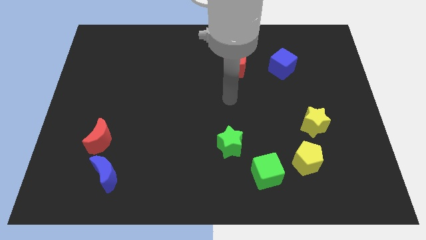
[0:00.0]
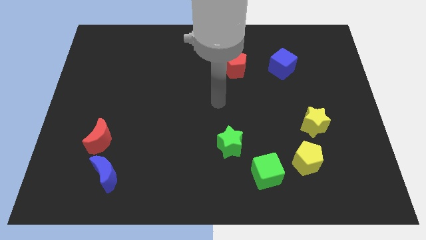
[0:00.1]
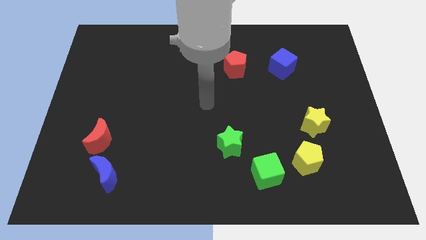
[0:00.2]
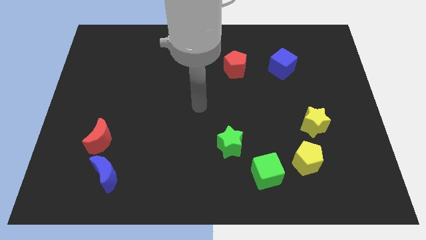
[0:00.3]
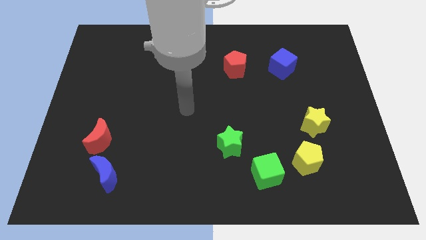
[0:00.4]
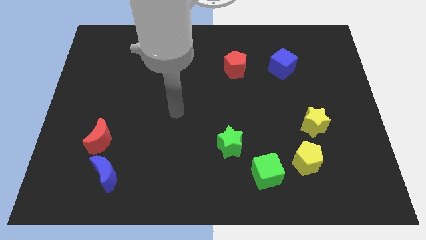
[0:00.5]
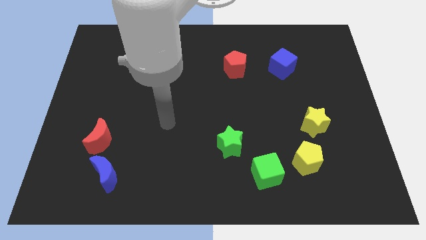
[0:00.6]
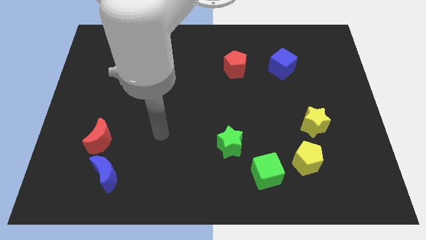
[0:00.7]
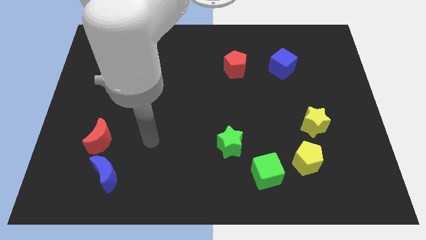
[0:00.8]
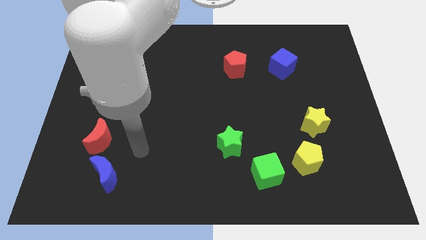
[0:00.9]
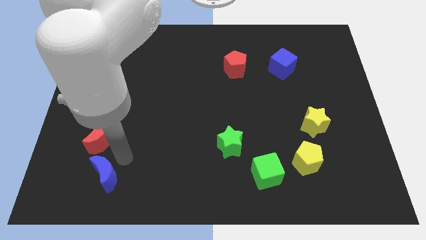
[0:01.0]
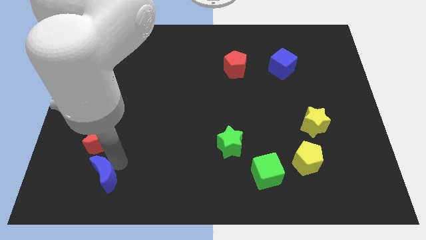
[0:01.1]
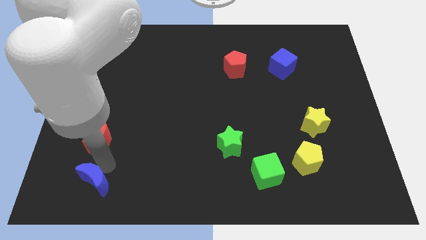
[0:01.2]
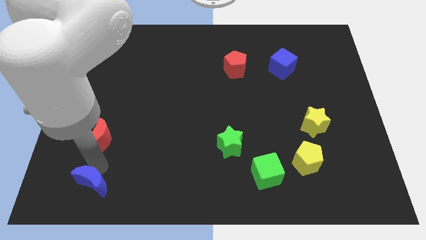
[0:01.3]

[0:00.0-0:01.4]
move the red moon away from the blue moon

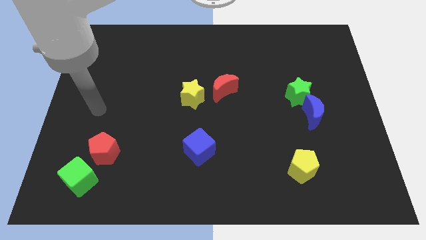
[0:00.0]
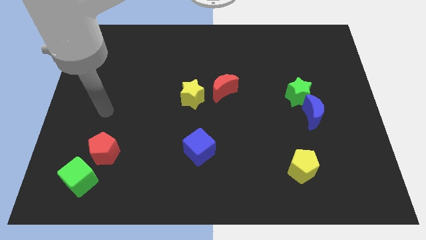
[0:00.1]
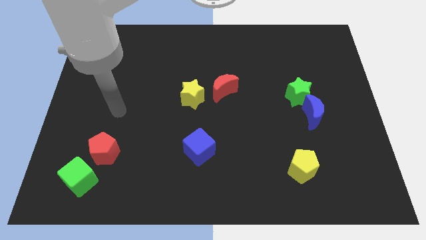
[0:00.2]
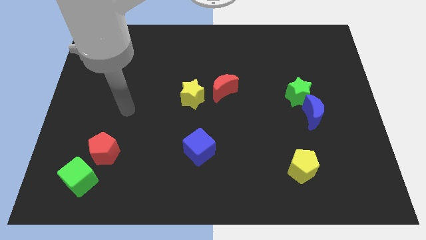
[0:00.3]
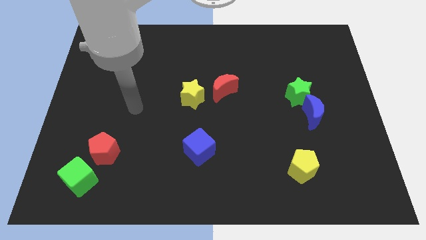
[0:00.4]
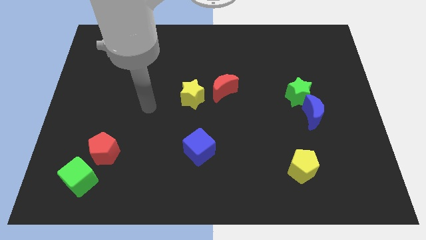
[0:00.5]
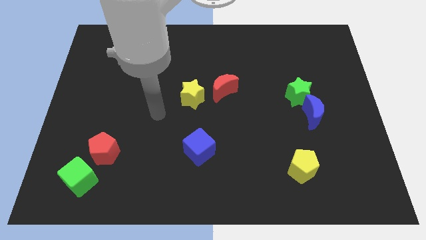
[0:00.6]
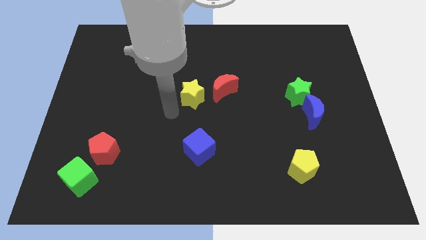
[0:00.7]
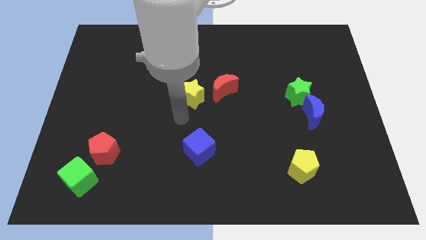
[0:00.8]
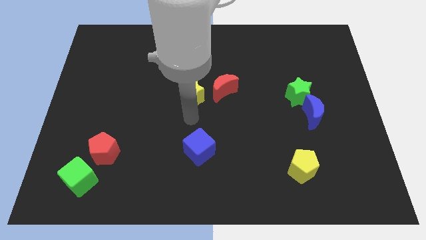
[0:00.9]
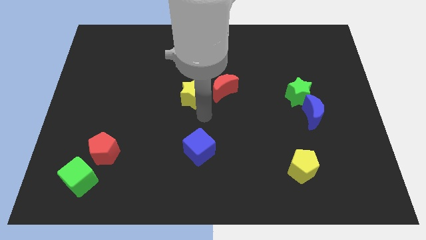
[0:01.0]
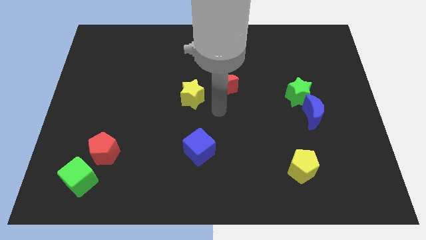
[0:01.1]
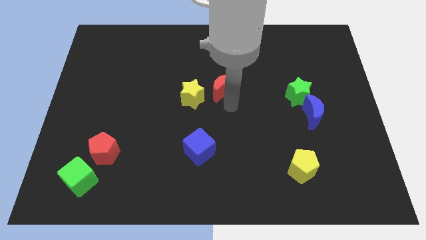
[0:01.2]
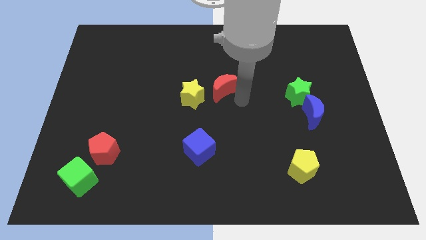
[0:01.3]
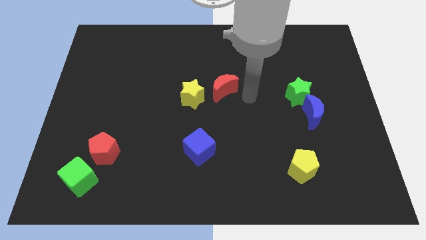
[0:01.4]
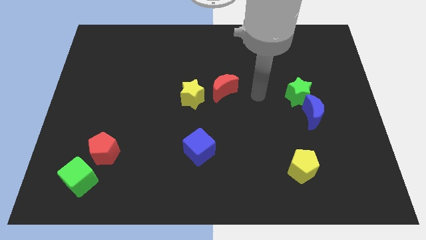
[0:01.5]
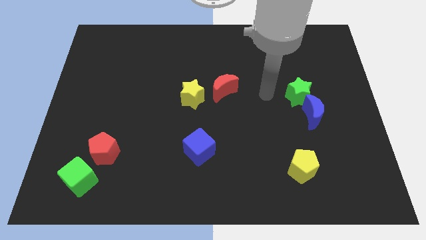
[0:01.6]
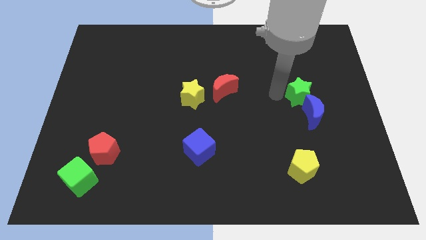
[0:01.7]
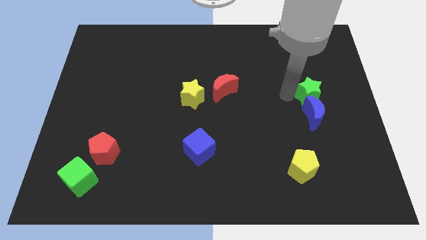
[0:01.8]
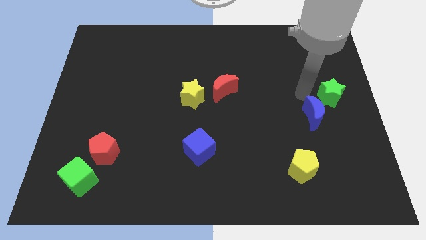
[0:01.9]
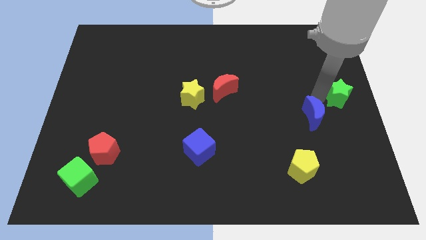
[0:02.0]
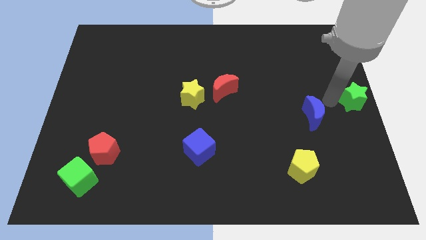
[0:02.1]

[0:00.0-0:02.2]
move the blue moon away from the green star

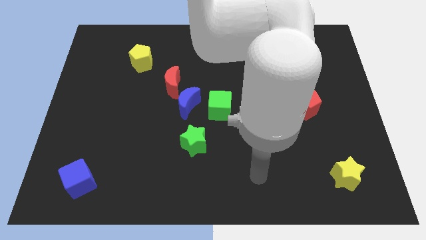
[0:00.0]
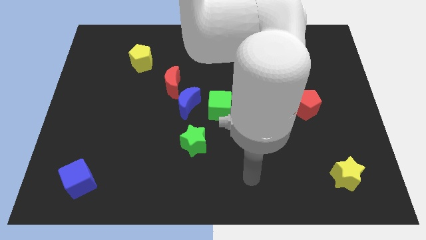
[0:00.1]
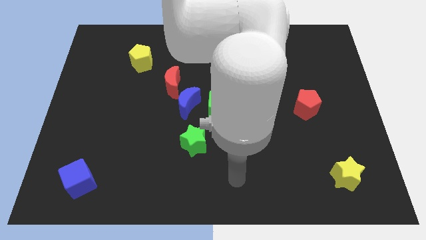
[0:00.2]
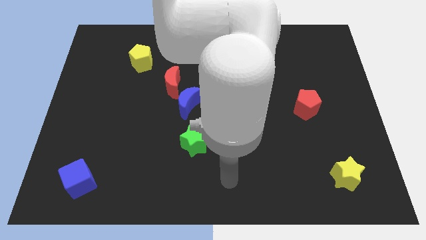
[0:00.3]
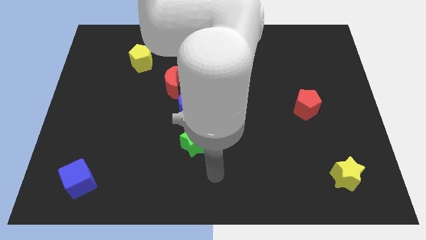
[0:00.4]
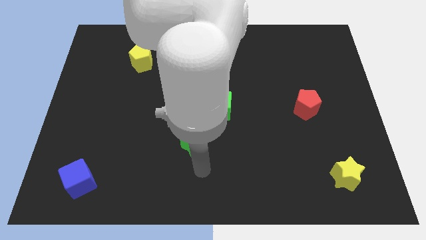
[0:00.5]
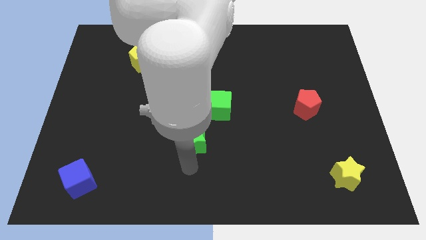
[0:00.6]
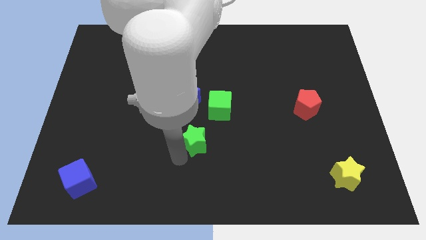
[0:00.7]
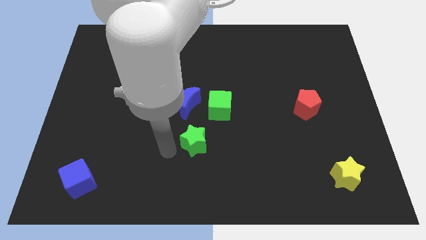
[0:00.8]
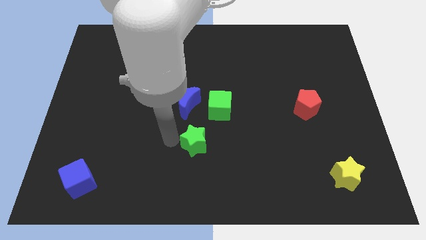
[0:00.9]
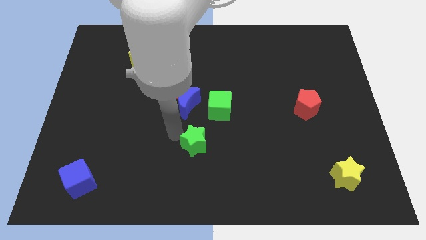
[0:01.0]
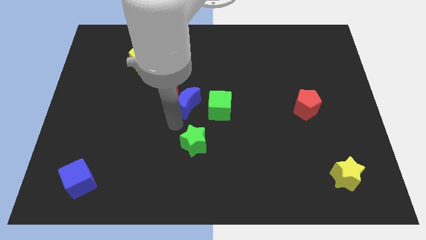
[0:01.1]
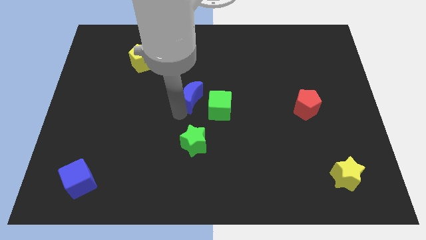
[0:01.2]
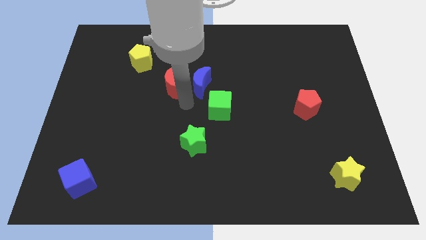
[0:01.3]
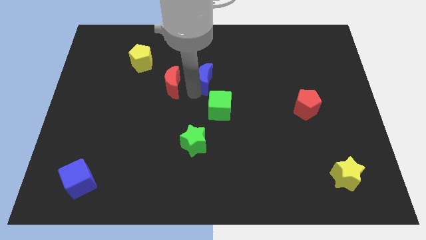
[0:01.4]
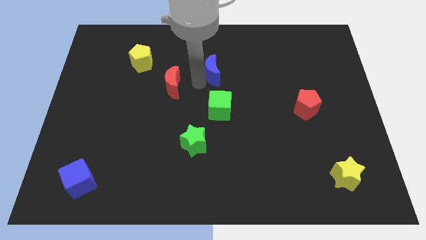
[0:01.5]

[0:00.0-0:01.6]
separate the red moon from the blue moon

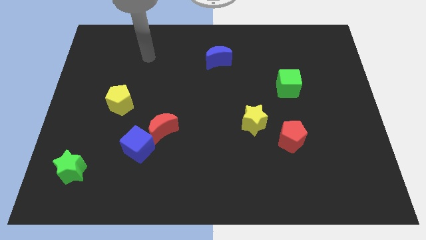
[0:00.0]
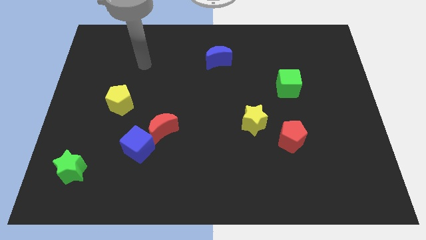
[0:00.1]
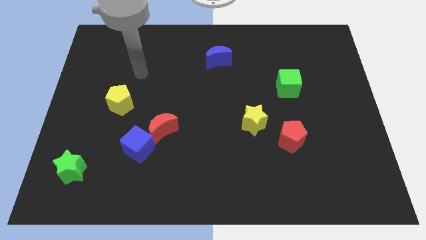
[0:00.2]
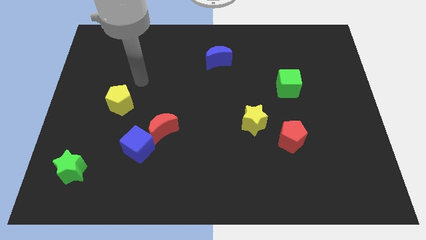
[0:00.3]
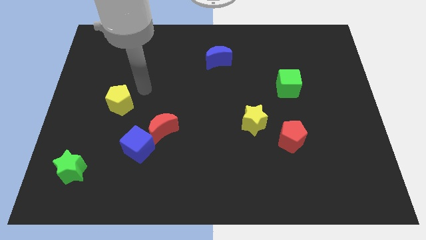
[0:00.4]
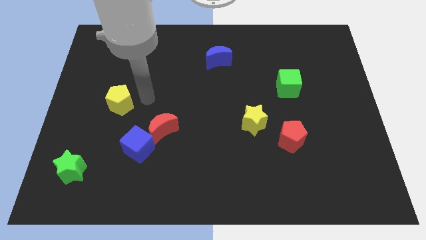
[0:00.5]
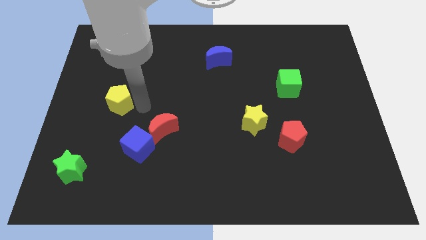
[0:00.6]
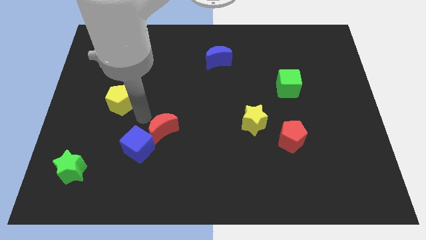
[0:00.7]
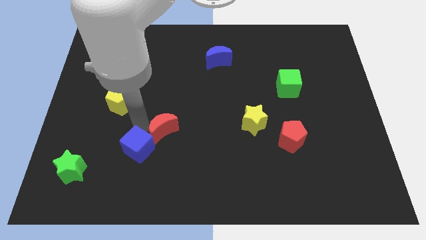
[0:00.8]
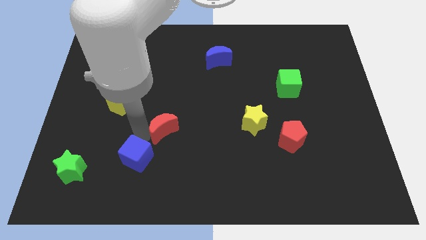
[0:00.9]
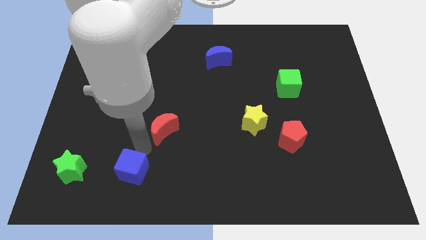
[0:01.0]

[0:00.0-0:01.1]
pull the red moon apart from the blue cube

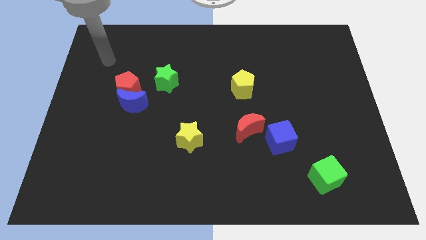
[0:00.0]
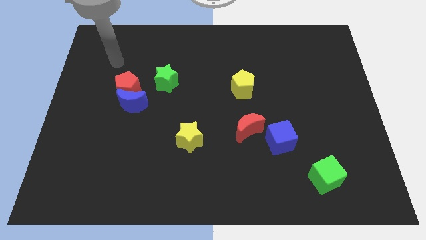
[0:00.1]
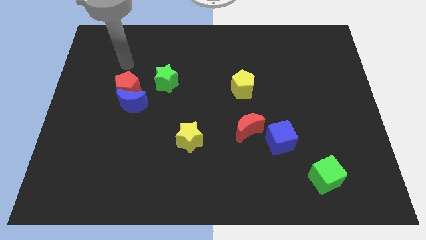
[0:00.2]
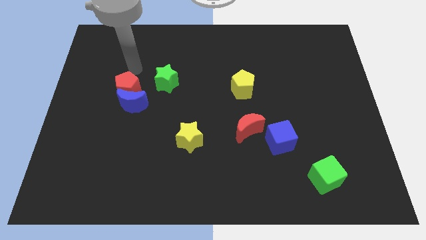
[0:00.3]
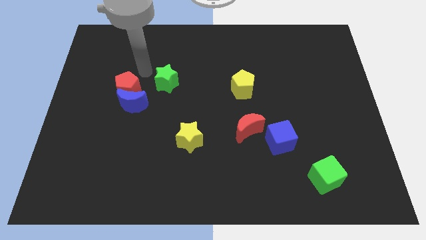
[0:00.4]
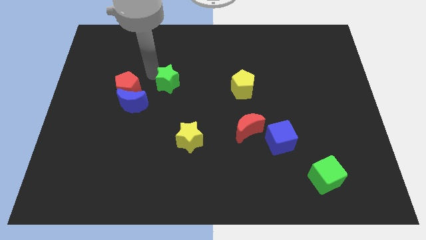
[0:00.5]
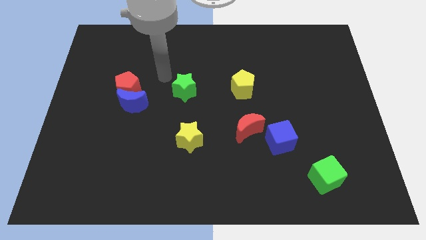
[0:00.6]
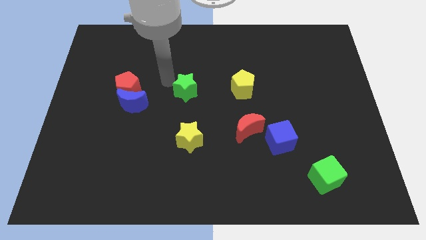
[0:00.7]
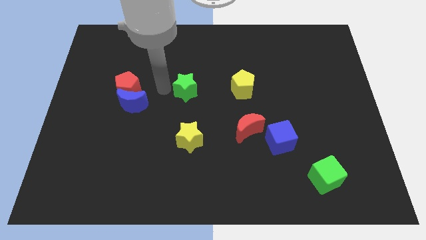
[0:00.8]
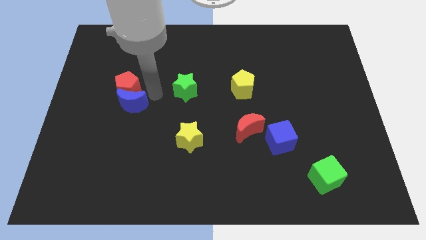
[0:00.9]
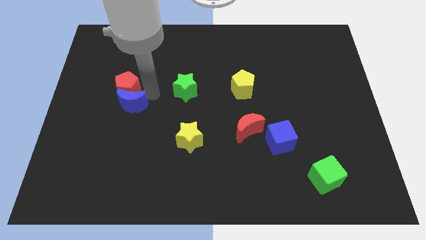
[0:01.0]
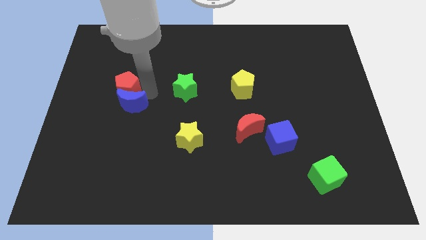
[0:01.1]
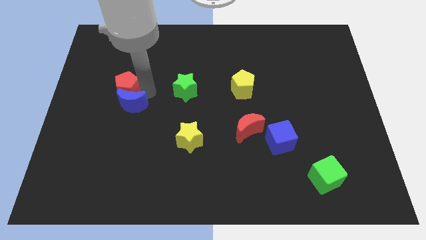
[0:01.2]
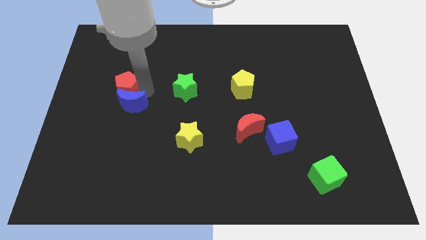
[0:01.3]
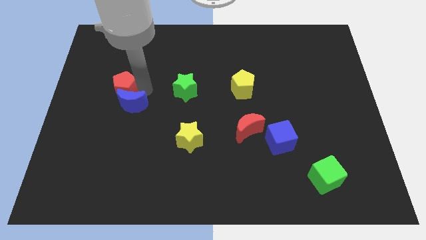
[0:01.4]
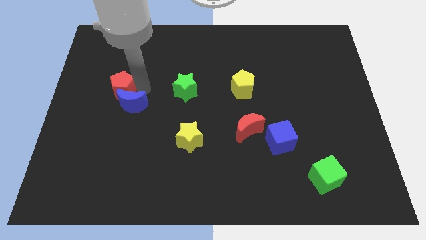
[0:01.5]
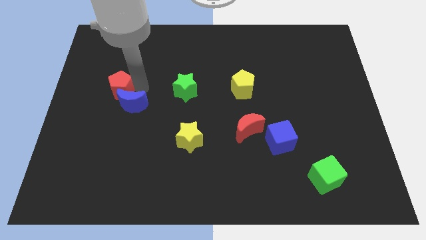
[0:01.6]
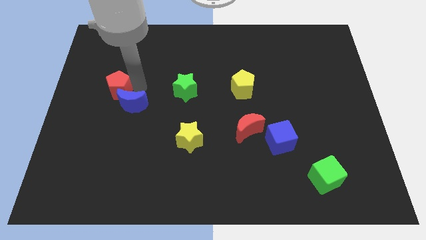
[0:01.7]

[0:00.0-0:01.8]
move the red pentagon away from the blue moon and green star

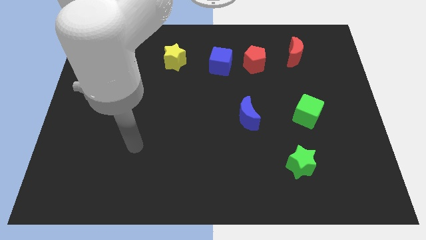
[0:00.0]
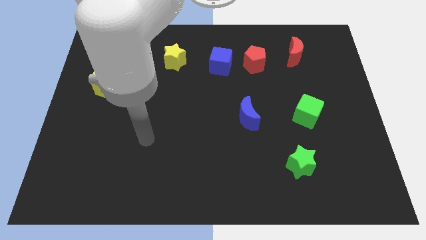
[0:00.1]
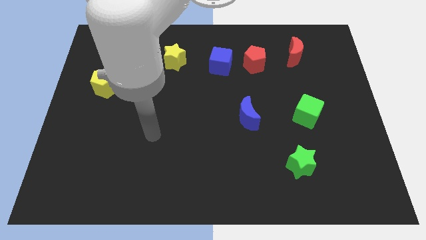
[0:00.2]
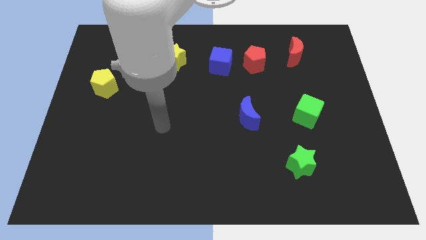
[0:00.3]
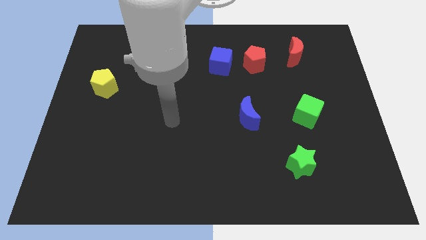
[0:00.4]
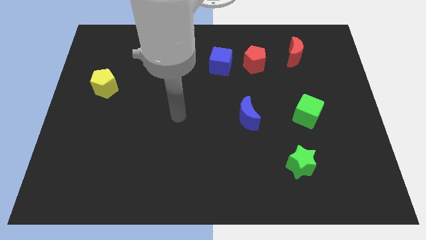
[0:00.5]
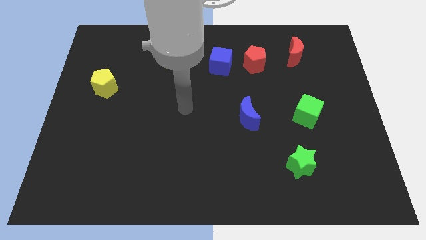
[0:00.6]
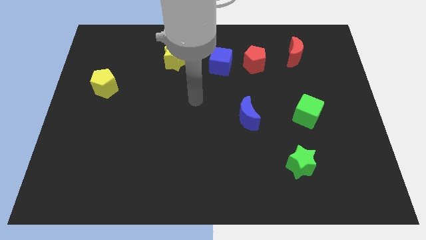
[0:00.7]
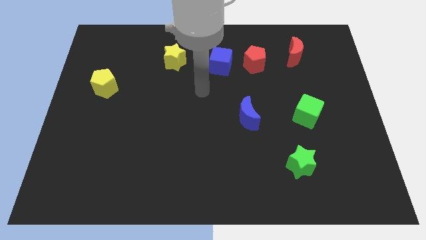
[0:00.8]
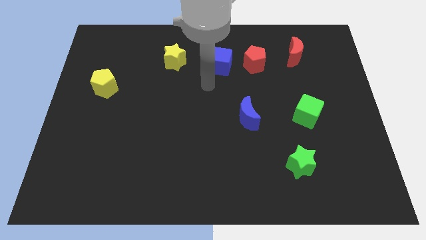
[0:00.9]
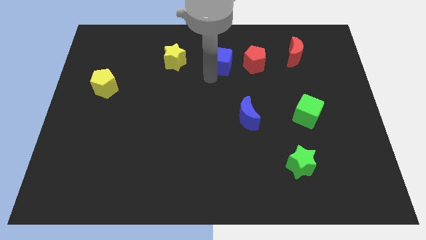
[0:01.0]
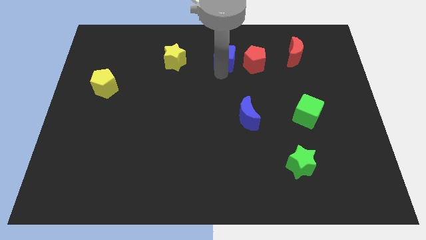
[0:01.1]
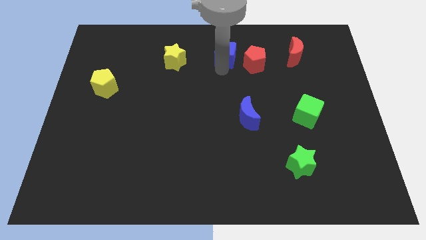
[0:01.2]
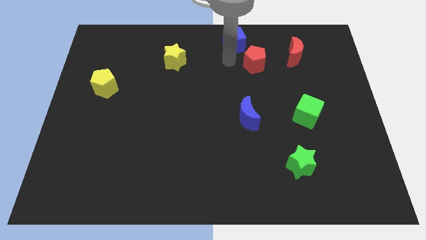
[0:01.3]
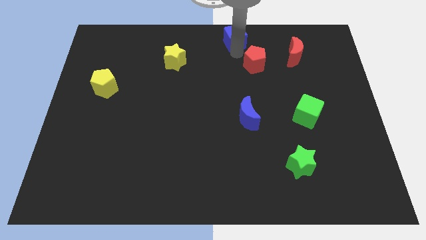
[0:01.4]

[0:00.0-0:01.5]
move the red pentagon away from the blue cube
